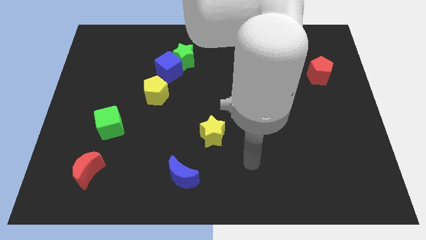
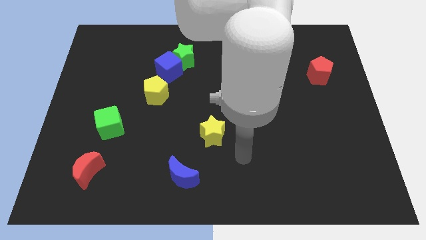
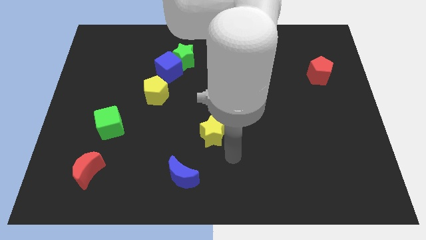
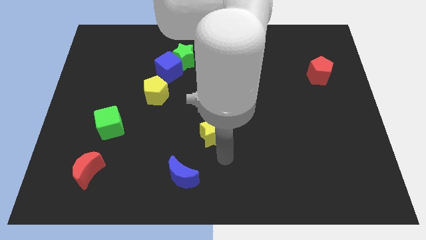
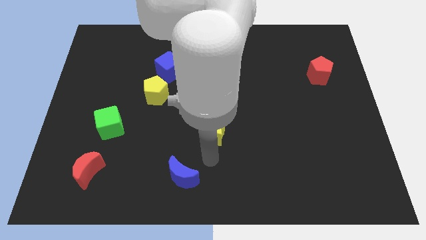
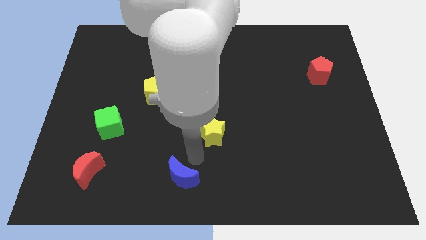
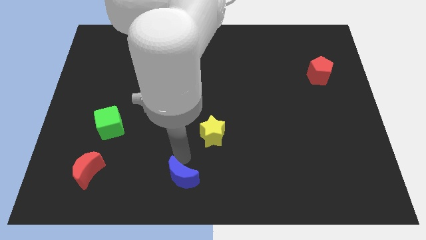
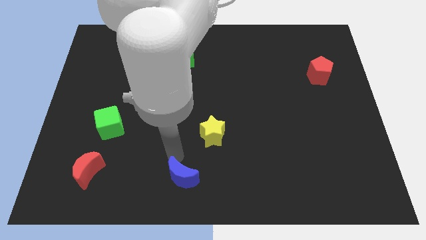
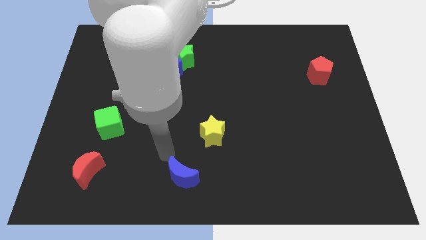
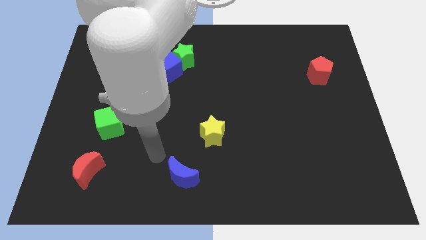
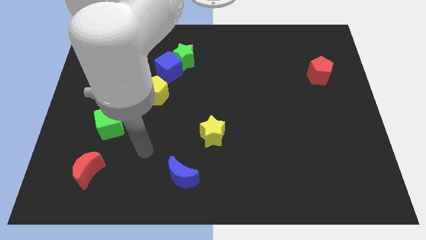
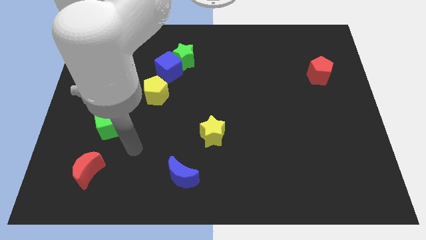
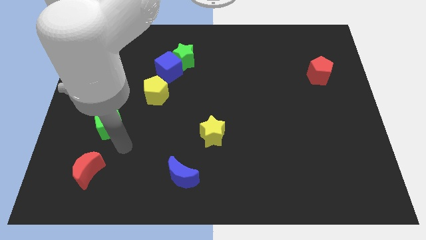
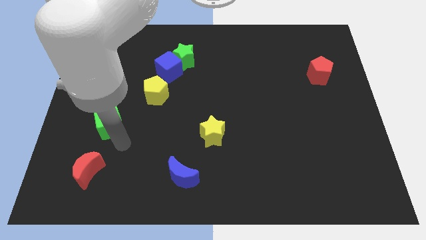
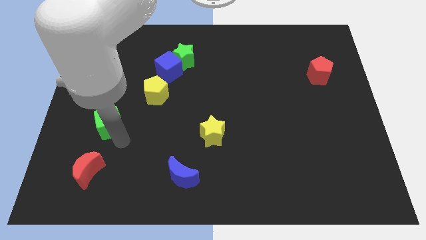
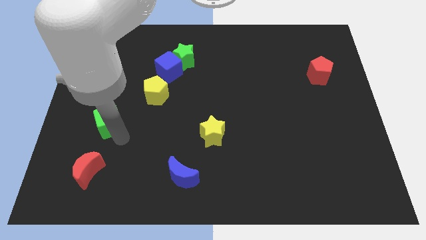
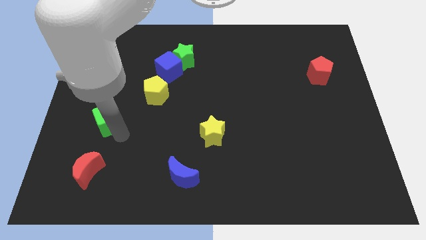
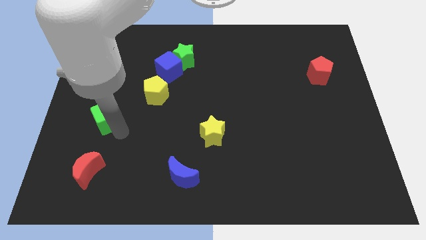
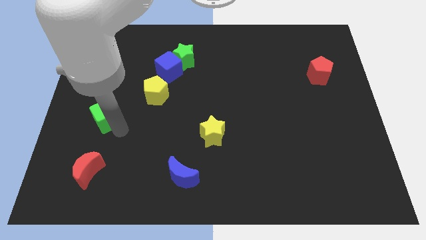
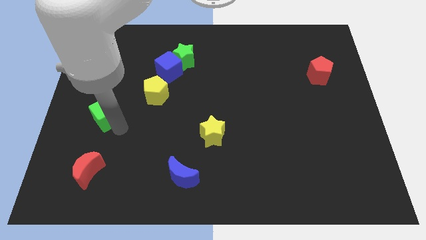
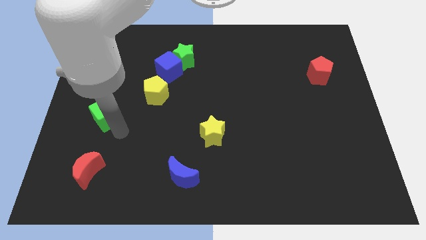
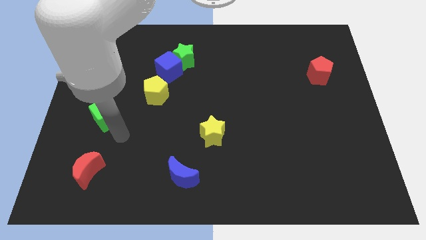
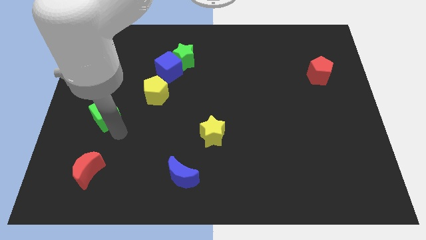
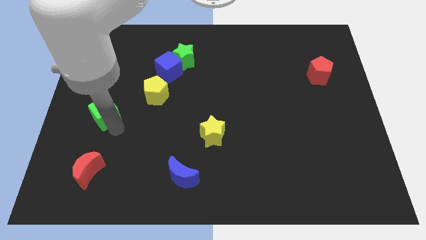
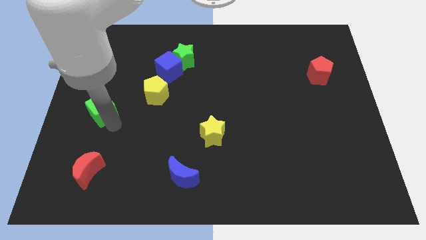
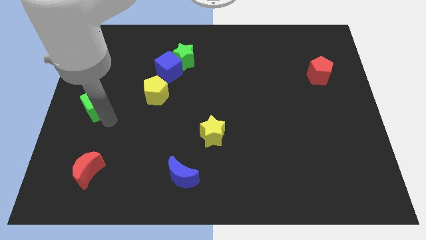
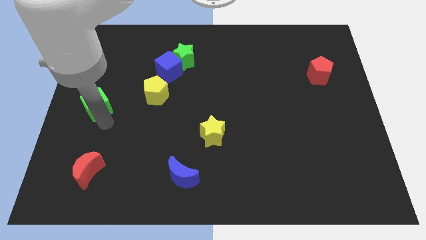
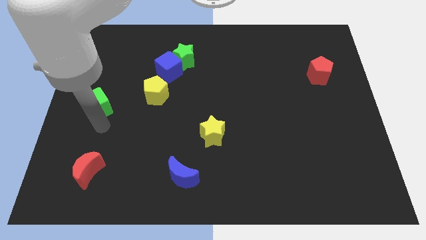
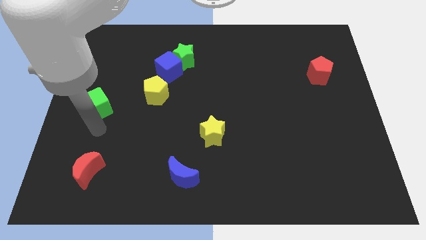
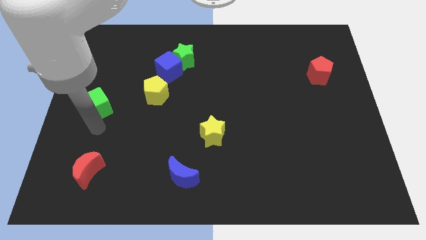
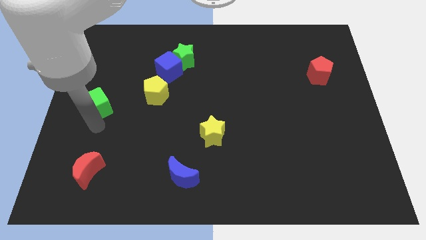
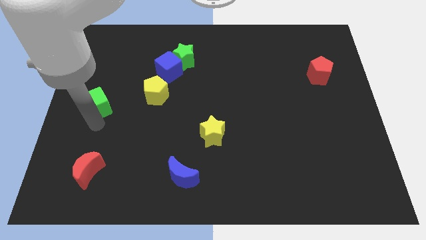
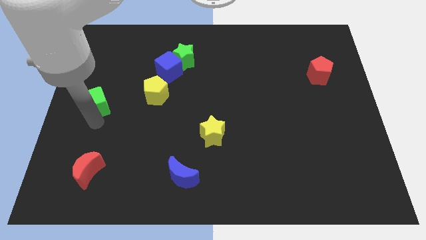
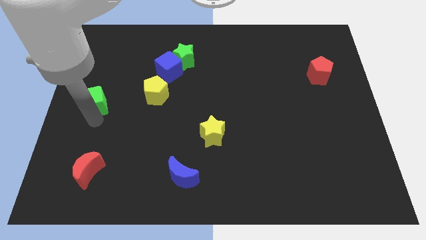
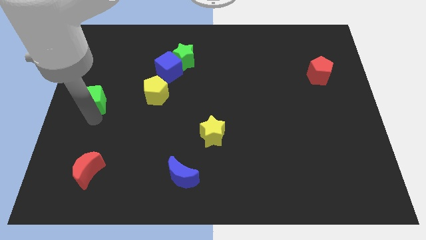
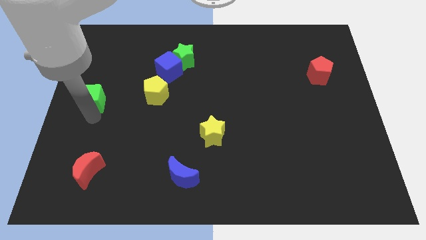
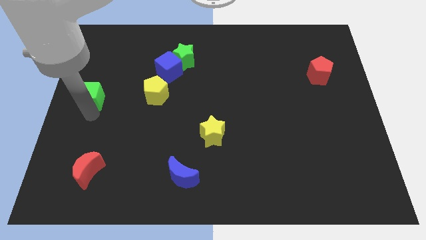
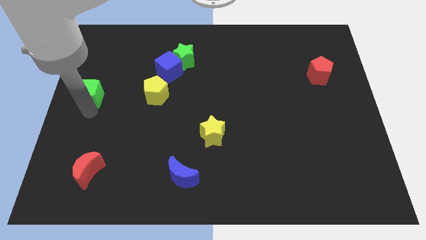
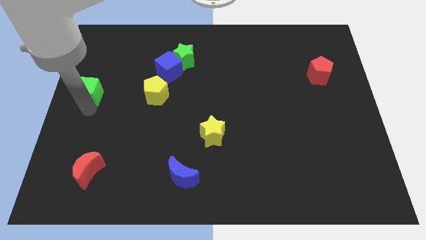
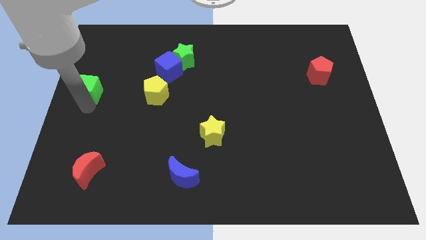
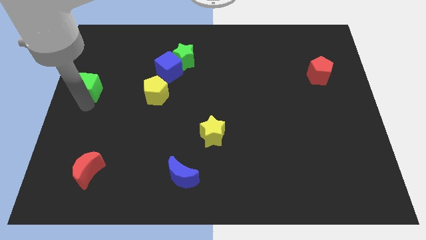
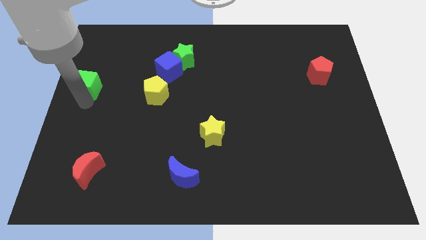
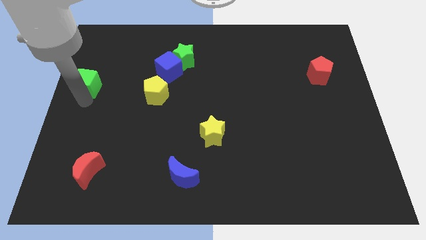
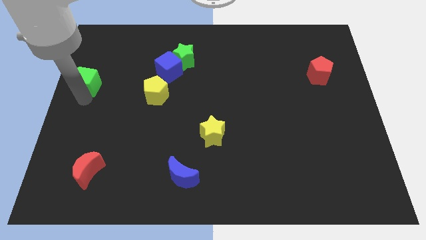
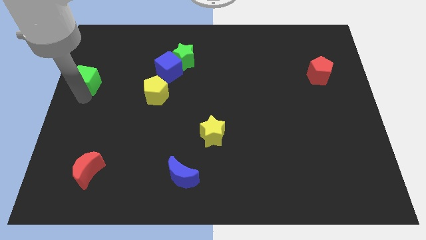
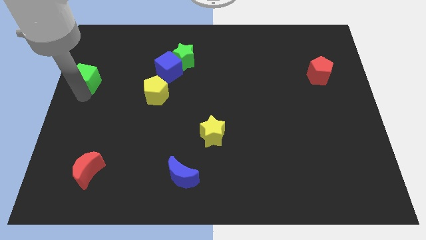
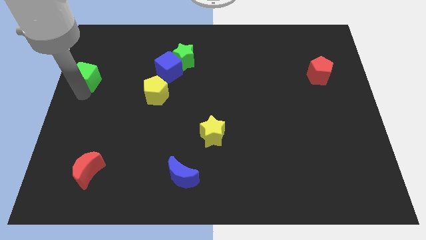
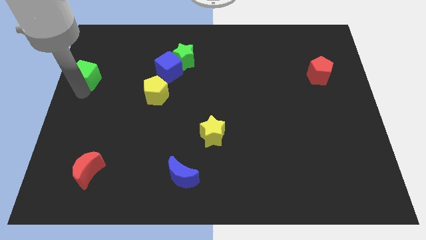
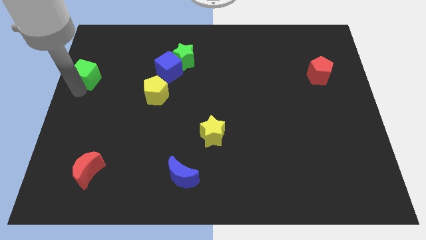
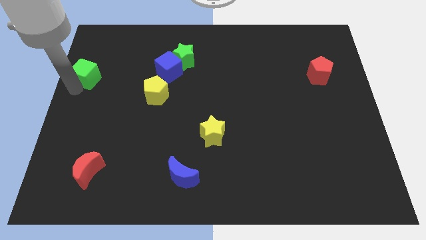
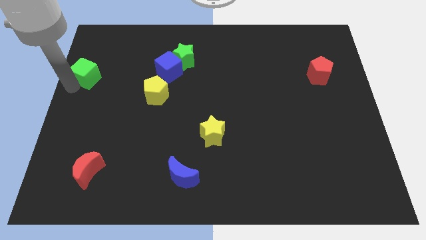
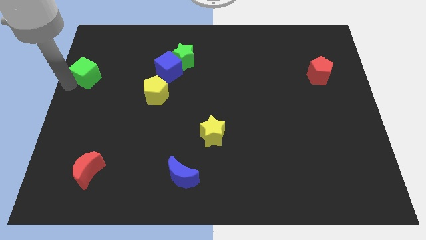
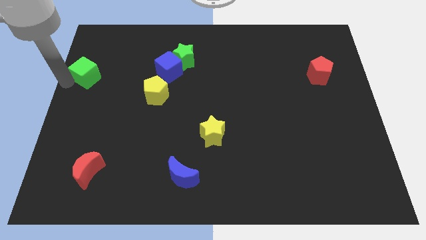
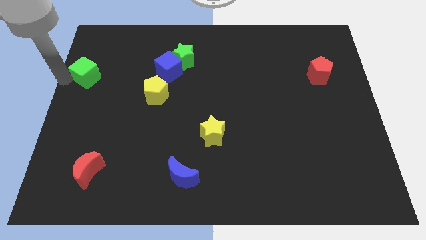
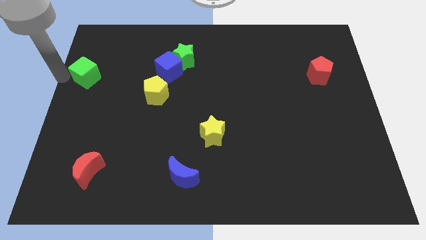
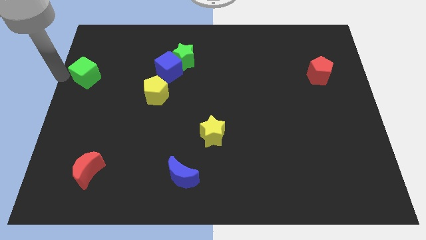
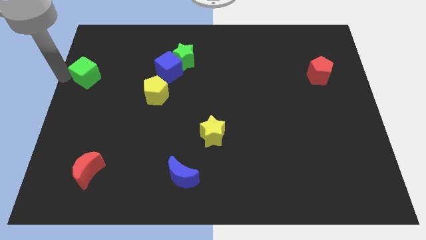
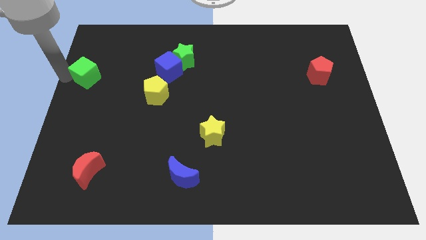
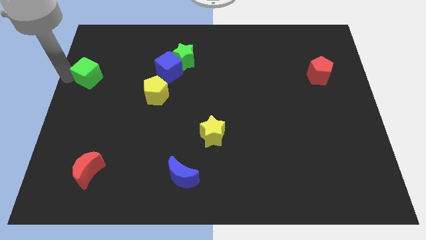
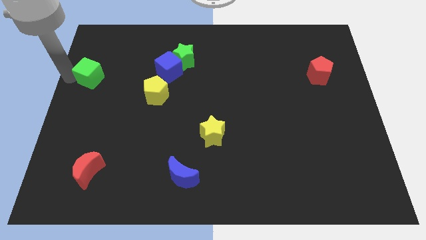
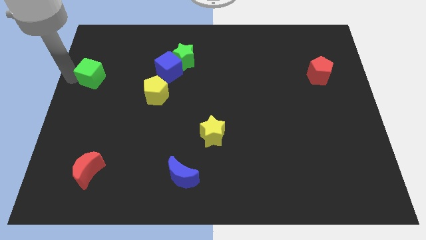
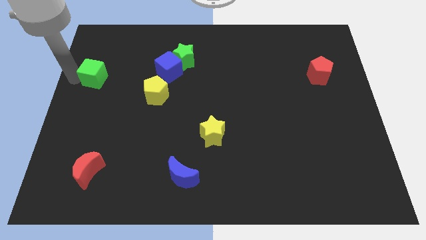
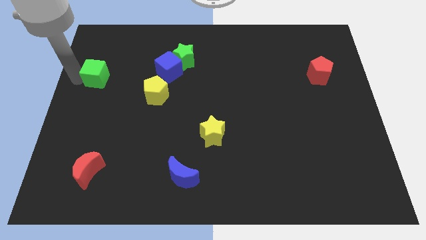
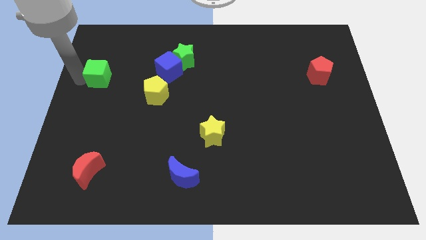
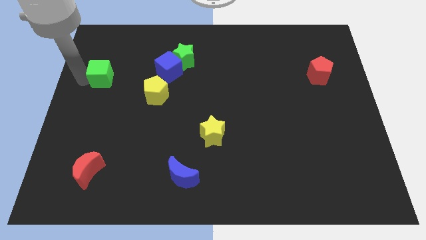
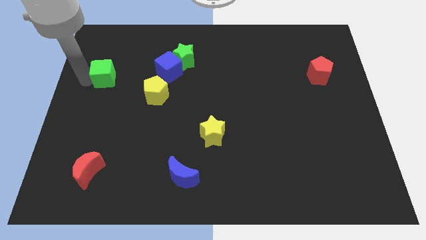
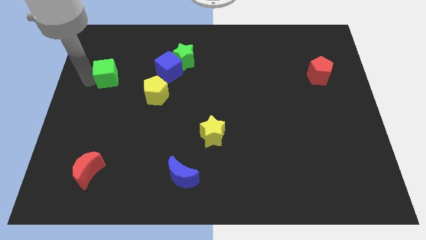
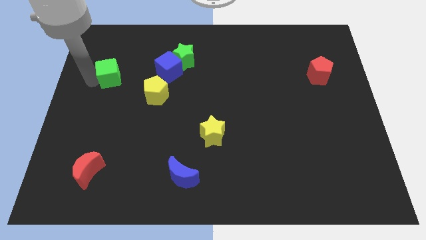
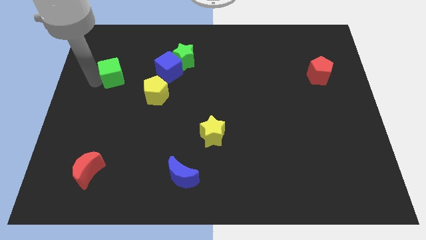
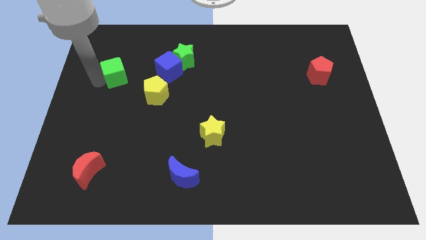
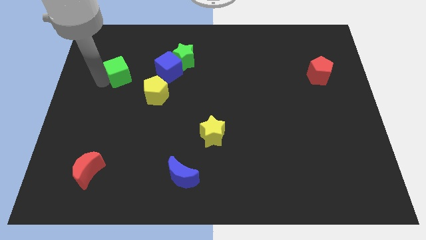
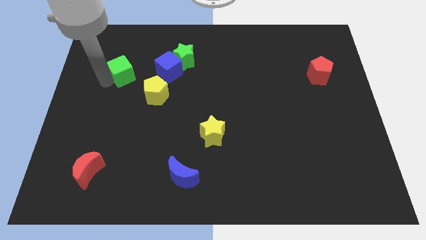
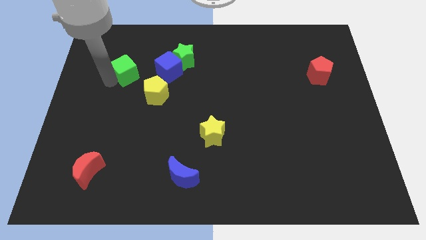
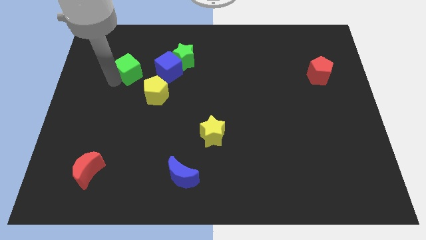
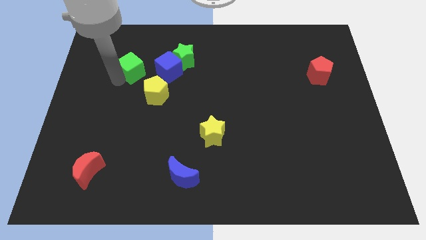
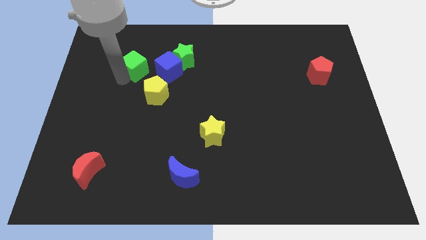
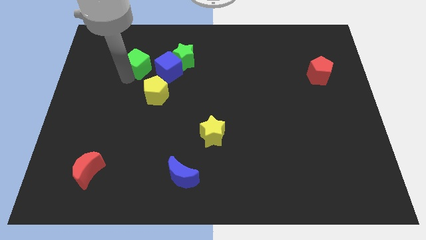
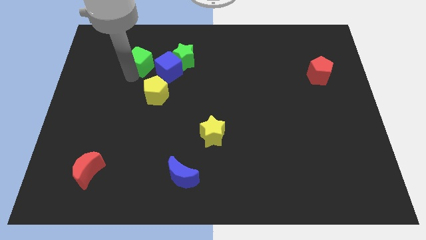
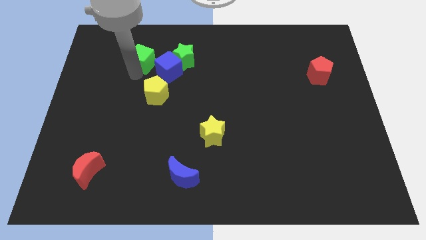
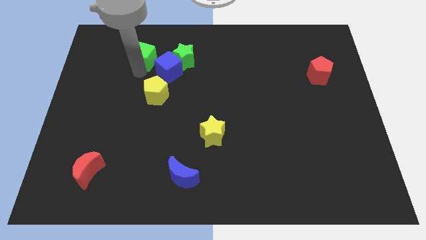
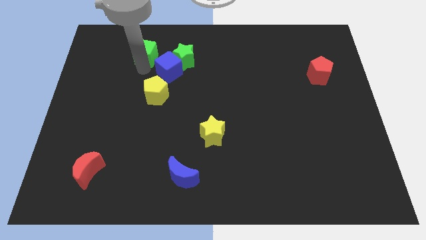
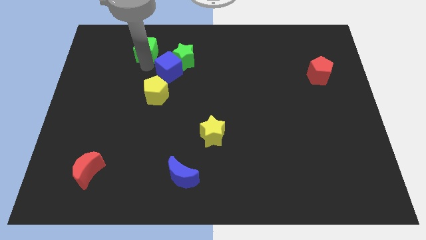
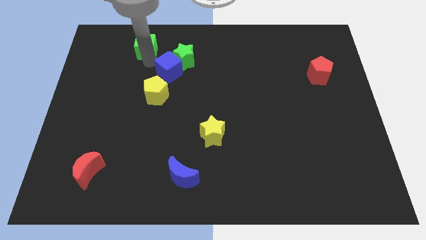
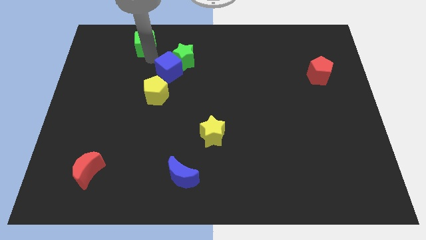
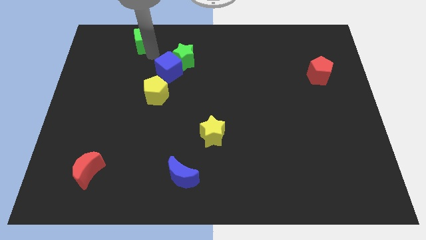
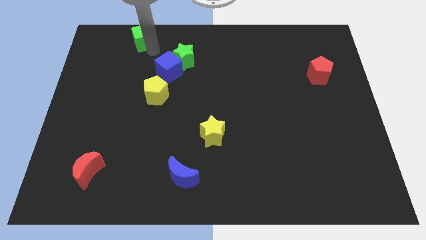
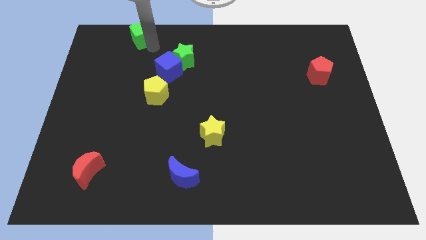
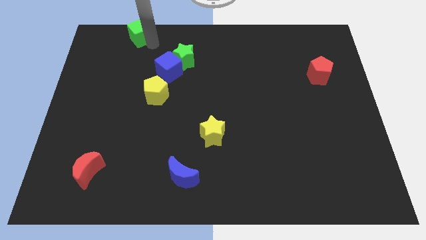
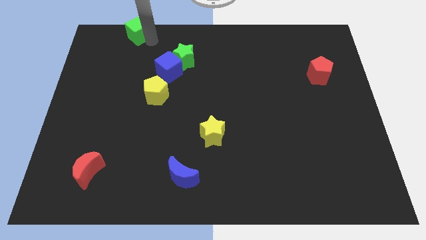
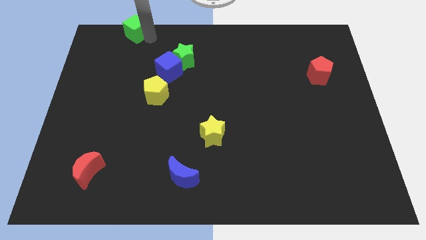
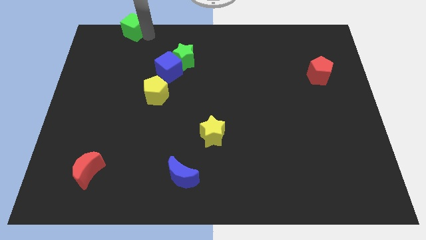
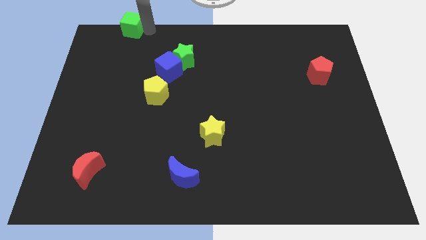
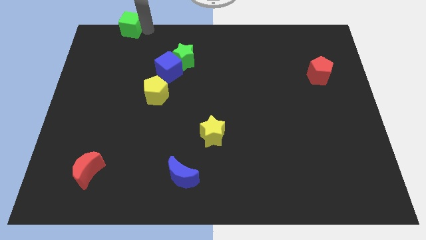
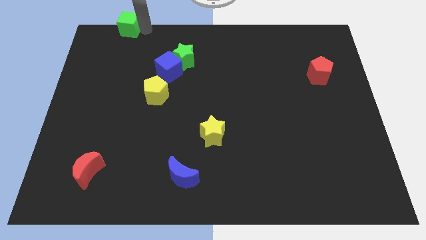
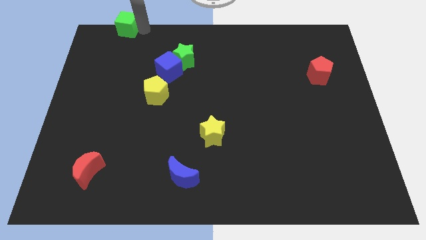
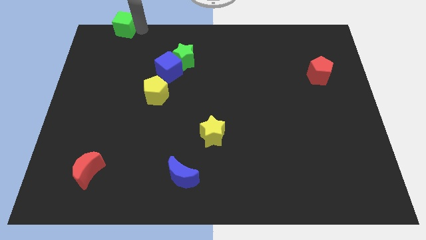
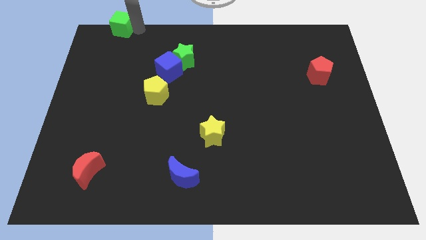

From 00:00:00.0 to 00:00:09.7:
push the green cube to the top left corner
